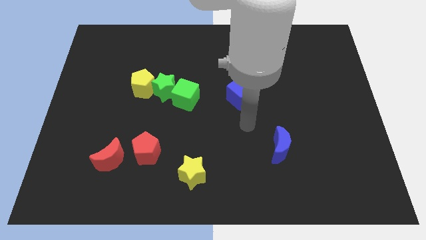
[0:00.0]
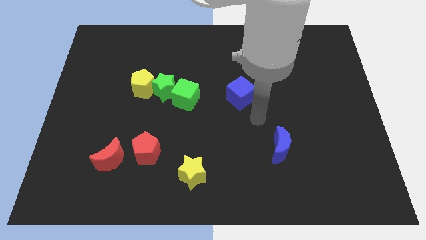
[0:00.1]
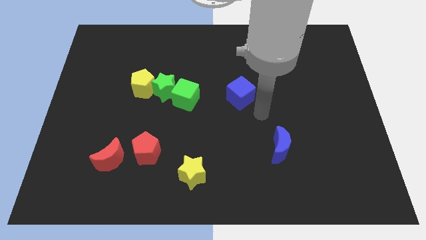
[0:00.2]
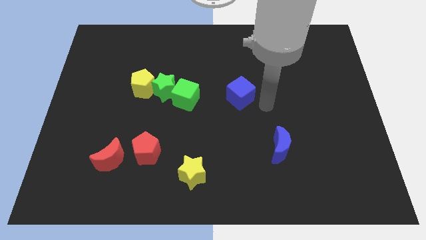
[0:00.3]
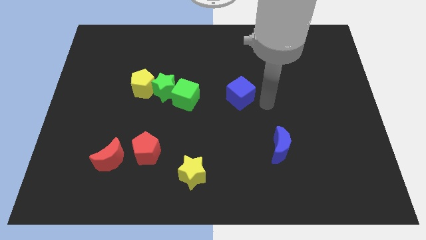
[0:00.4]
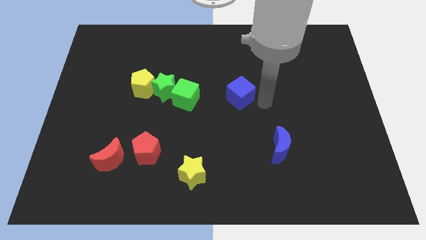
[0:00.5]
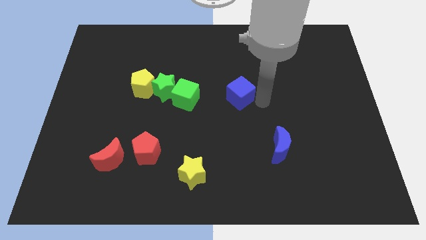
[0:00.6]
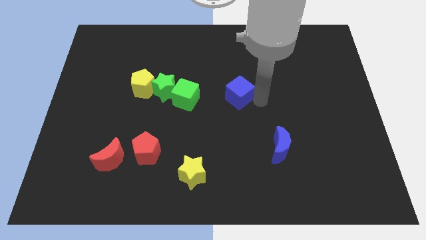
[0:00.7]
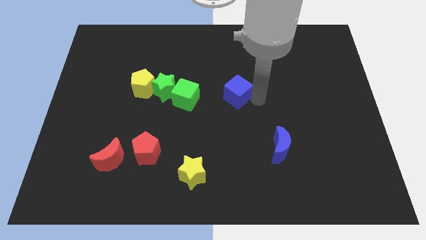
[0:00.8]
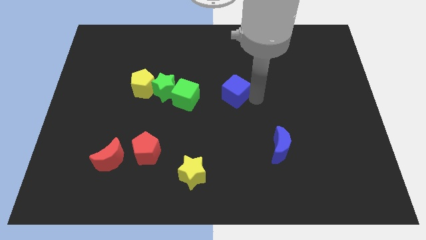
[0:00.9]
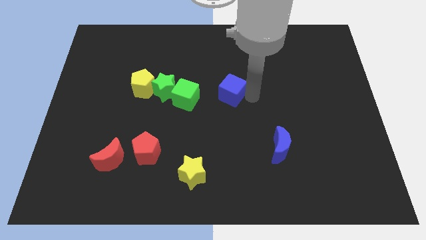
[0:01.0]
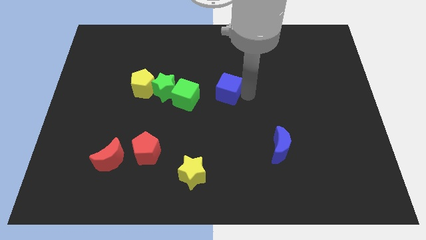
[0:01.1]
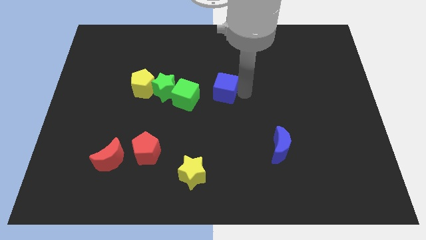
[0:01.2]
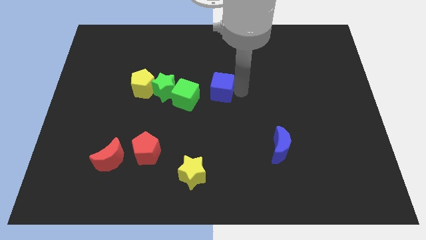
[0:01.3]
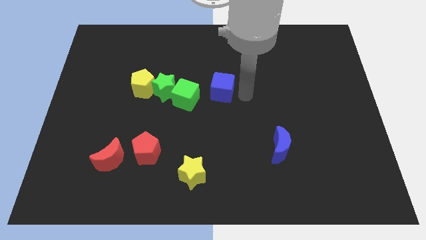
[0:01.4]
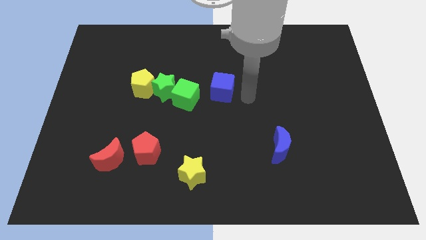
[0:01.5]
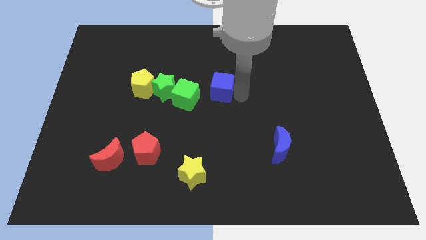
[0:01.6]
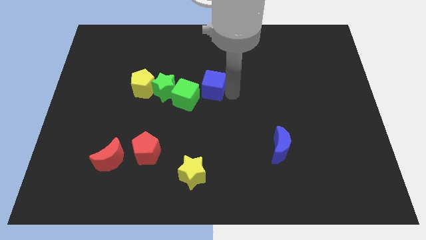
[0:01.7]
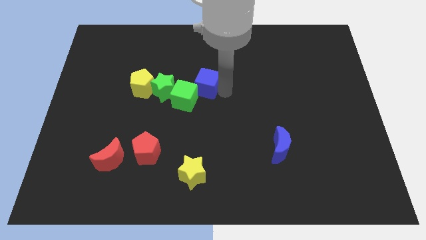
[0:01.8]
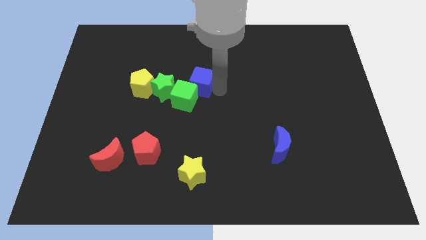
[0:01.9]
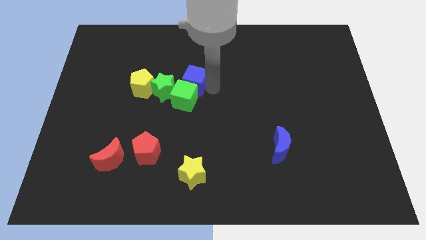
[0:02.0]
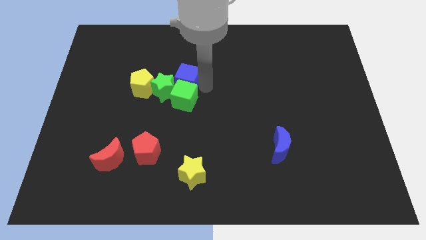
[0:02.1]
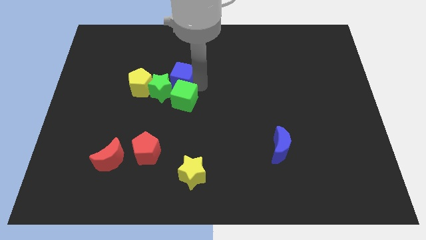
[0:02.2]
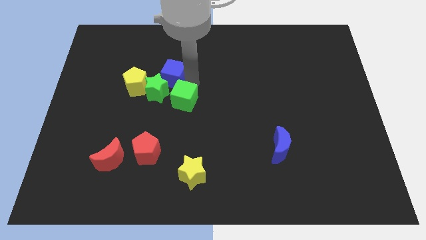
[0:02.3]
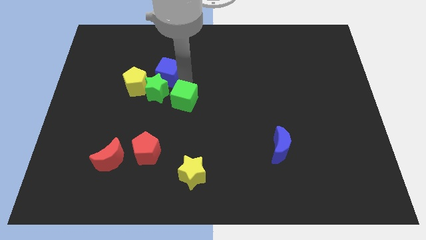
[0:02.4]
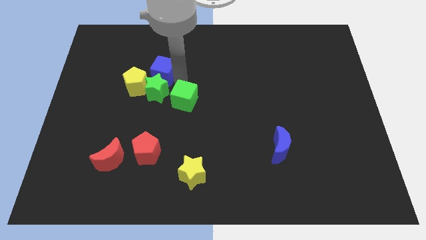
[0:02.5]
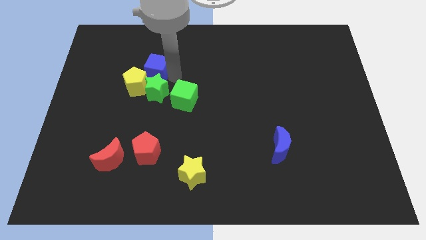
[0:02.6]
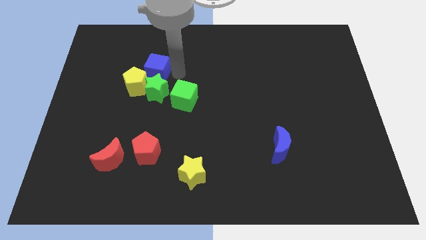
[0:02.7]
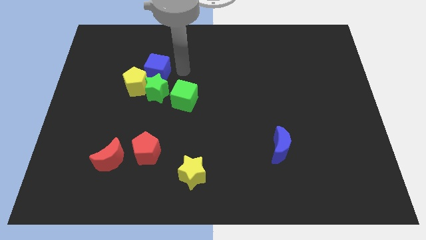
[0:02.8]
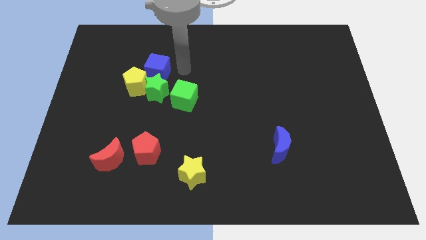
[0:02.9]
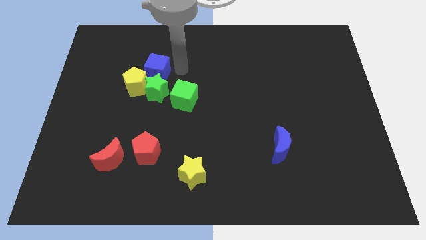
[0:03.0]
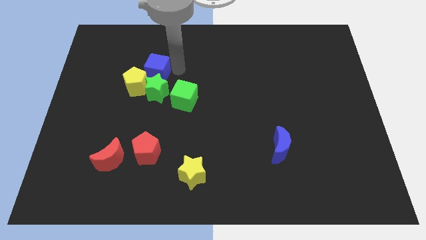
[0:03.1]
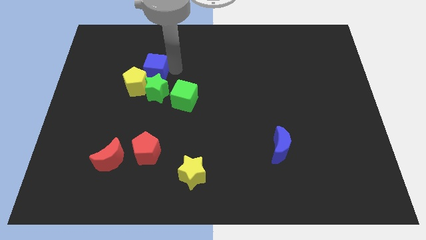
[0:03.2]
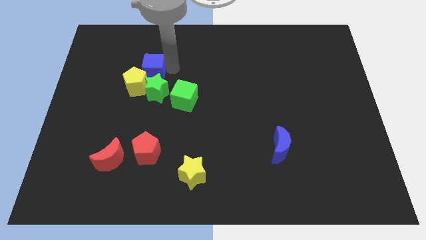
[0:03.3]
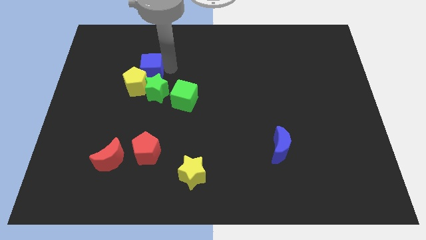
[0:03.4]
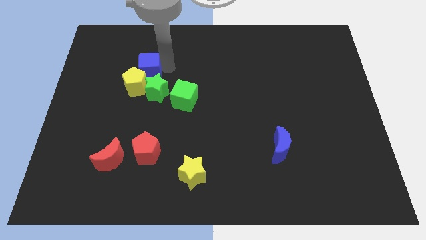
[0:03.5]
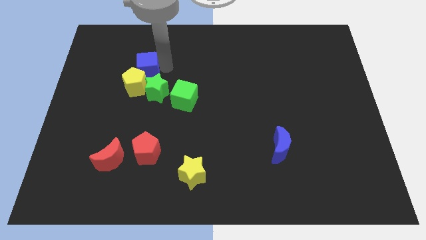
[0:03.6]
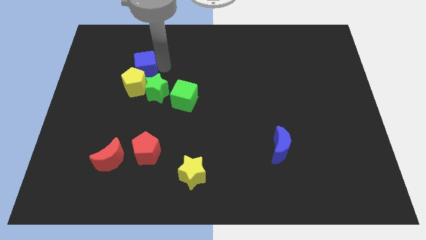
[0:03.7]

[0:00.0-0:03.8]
push the blue cube left

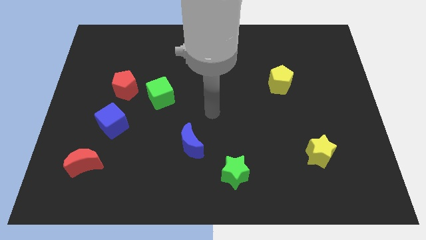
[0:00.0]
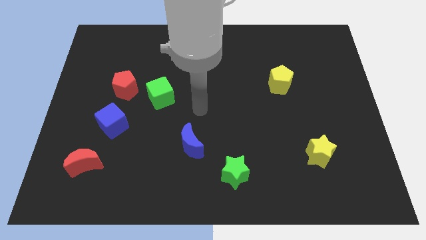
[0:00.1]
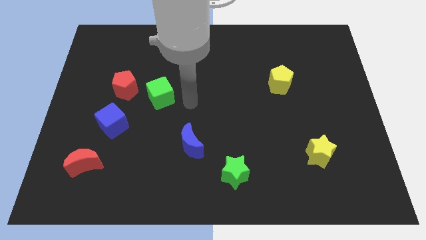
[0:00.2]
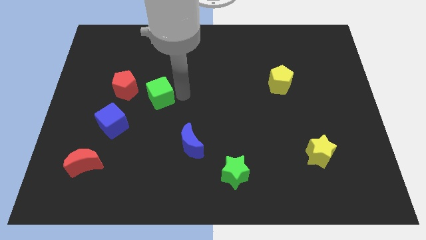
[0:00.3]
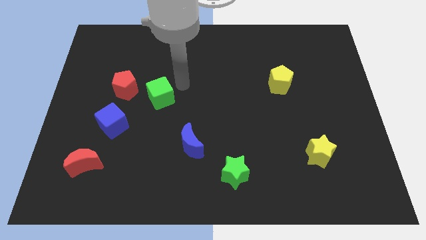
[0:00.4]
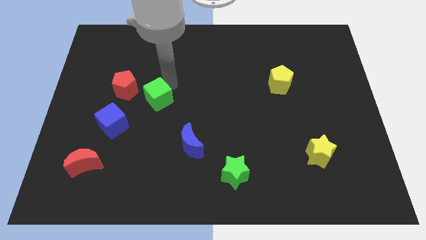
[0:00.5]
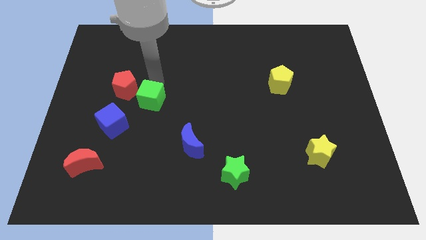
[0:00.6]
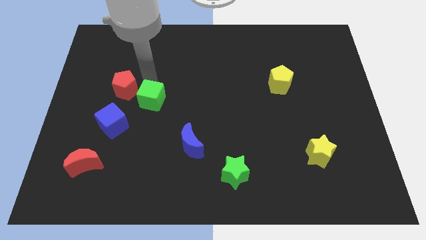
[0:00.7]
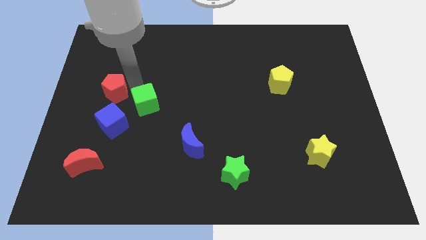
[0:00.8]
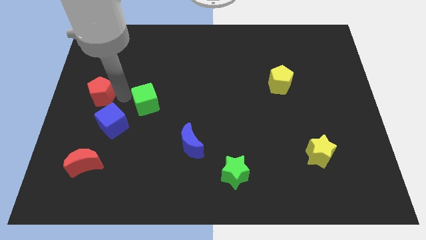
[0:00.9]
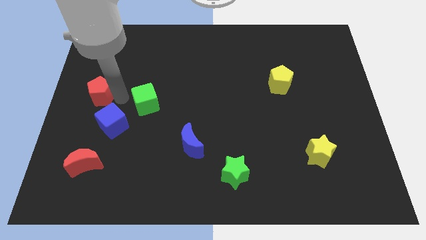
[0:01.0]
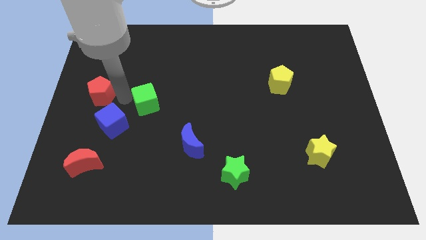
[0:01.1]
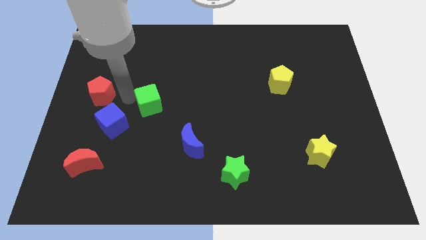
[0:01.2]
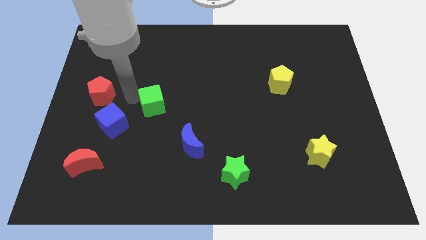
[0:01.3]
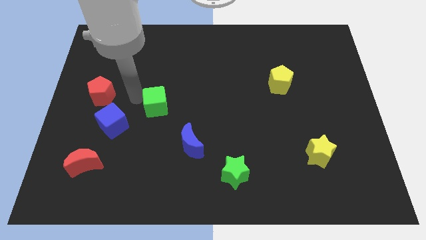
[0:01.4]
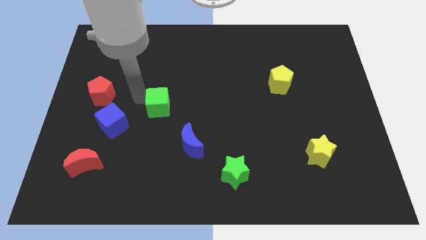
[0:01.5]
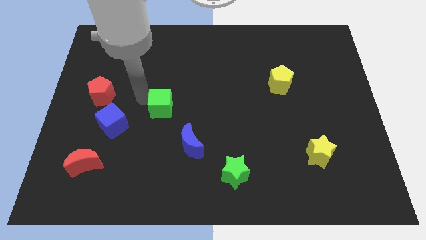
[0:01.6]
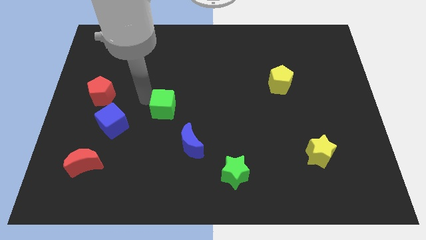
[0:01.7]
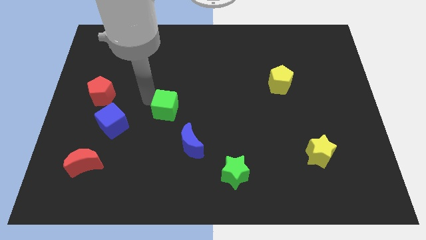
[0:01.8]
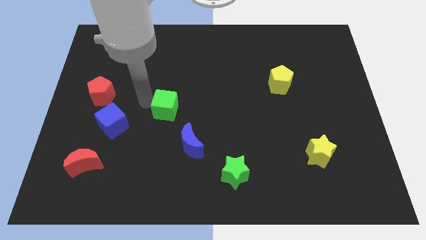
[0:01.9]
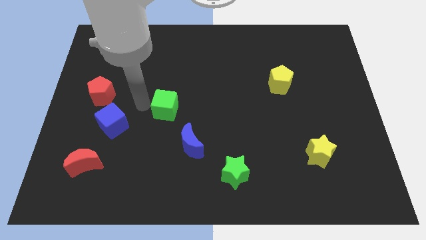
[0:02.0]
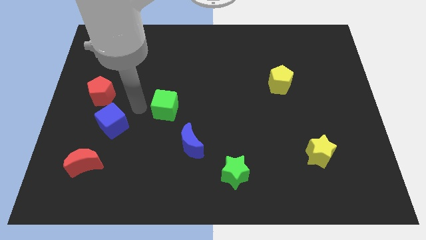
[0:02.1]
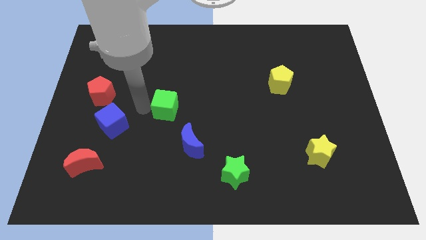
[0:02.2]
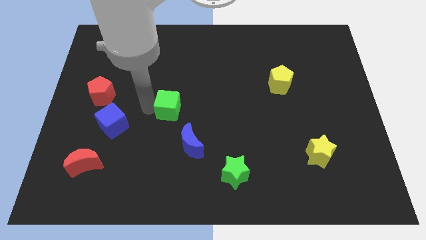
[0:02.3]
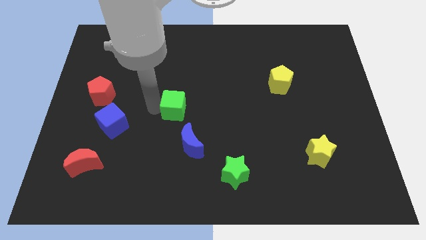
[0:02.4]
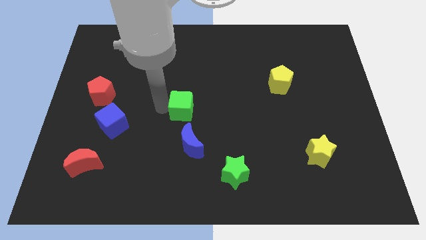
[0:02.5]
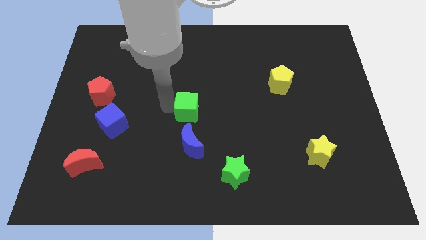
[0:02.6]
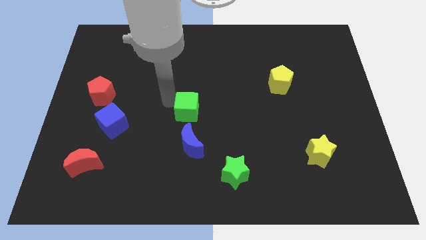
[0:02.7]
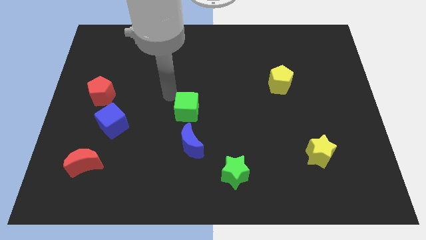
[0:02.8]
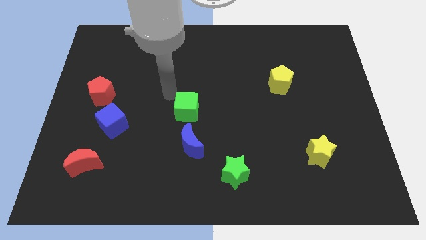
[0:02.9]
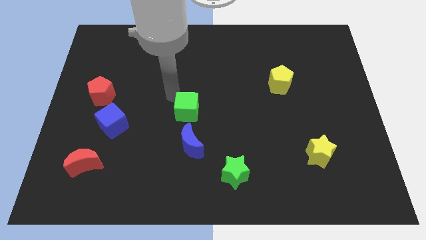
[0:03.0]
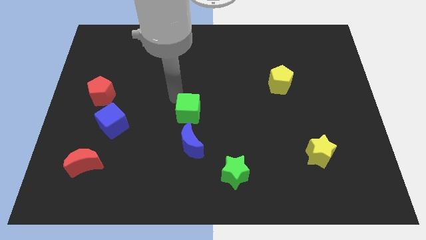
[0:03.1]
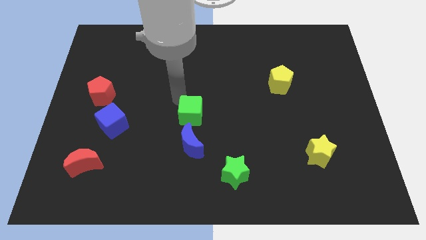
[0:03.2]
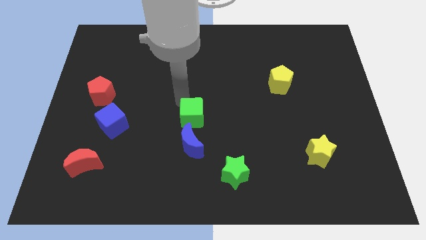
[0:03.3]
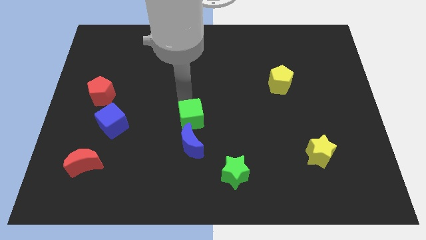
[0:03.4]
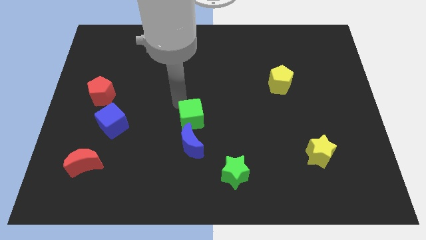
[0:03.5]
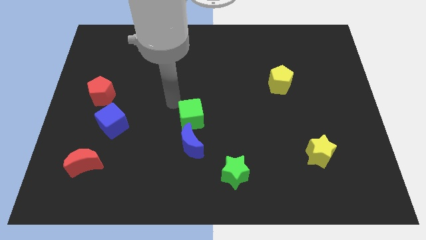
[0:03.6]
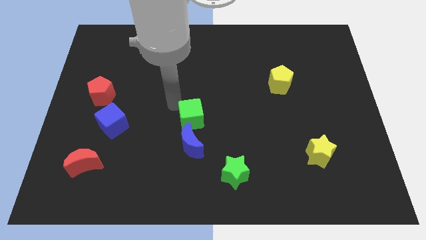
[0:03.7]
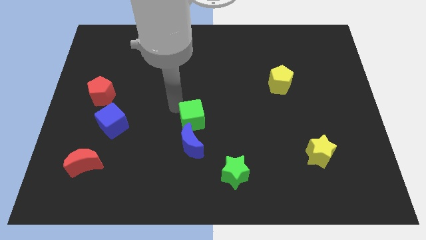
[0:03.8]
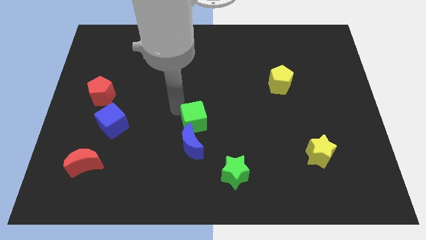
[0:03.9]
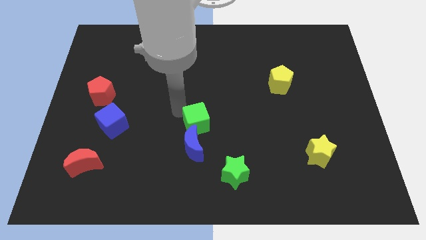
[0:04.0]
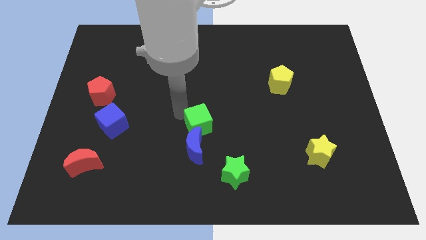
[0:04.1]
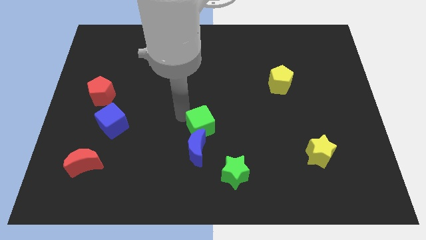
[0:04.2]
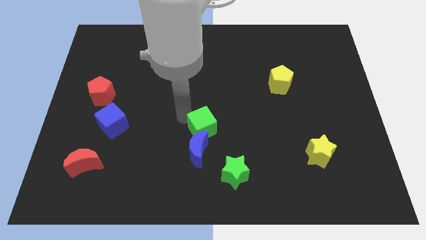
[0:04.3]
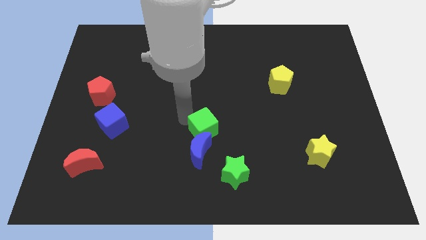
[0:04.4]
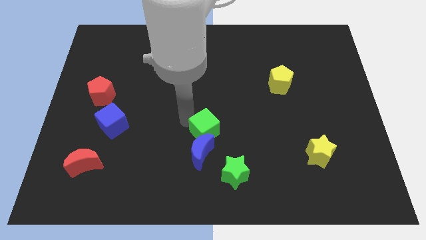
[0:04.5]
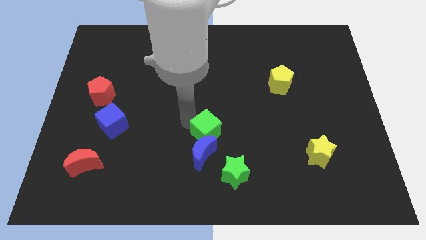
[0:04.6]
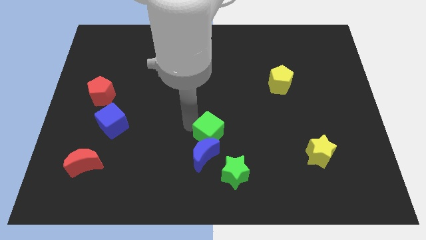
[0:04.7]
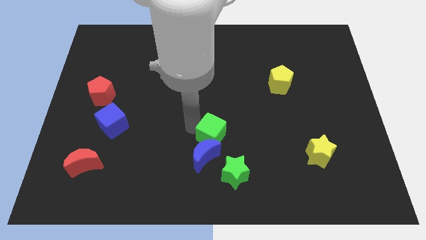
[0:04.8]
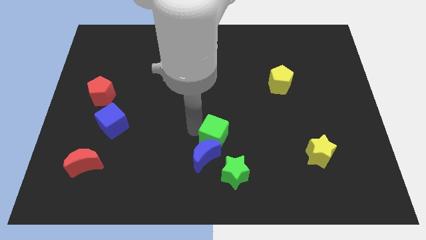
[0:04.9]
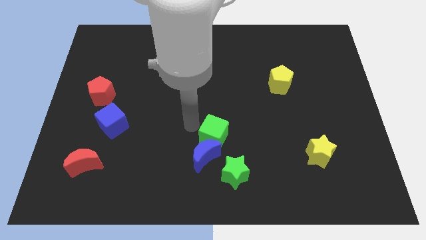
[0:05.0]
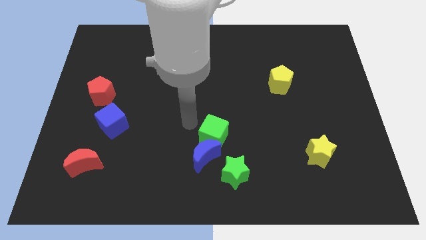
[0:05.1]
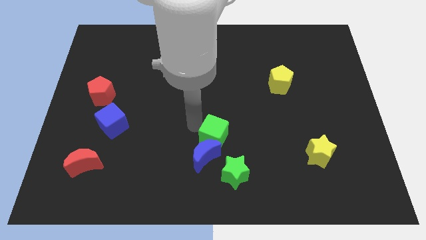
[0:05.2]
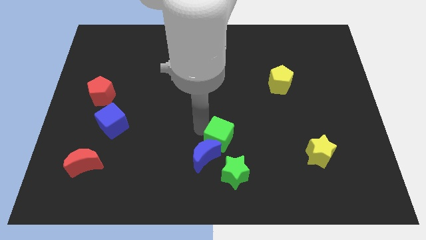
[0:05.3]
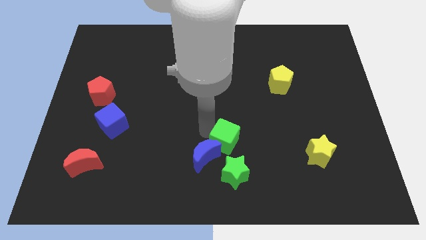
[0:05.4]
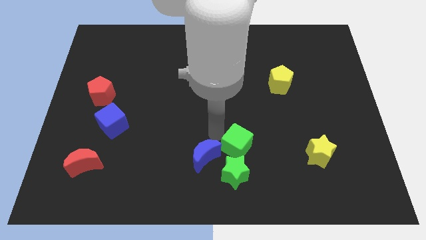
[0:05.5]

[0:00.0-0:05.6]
push the green cube diagonally downwards and to the right
